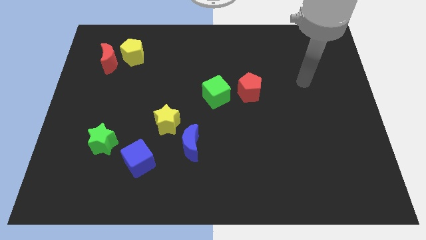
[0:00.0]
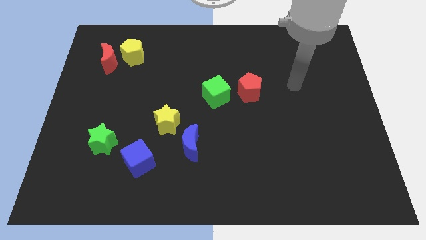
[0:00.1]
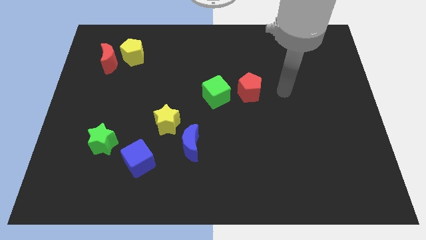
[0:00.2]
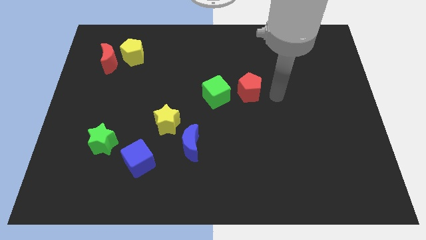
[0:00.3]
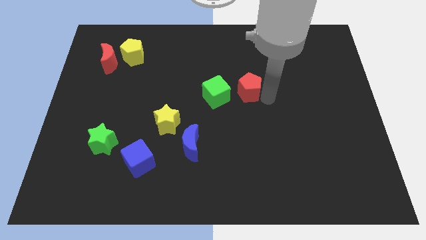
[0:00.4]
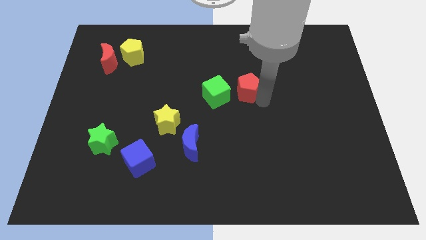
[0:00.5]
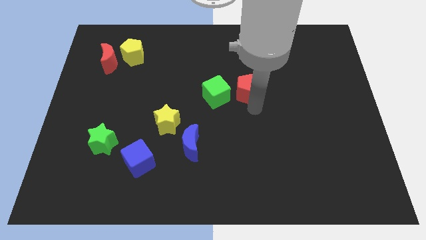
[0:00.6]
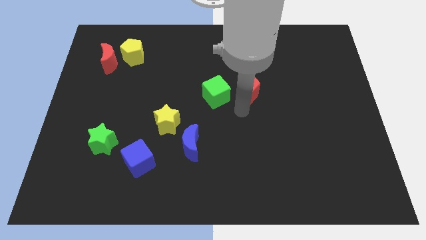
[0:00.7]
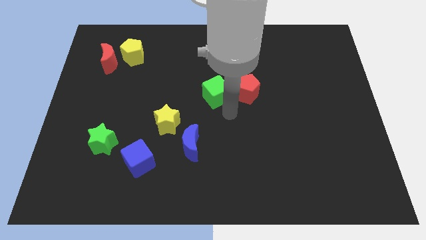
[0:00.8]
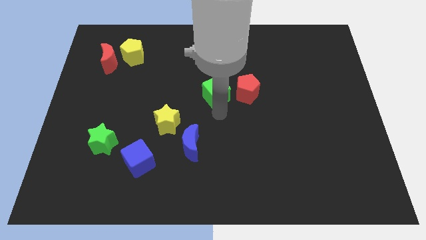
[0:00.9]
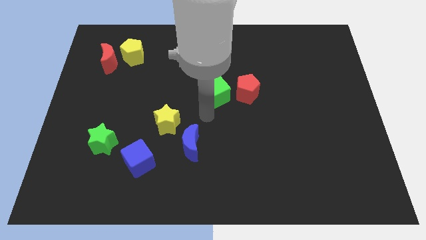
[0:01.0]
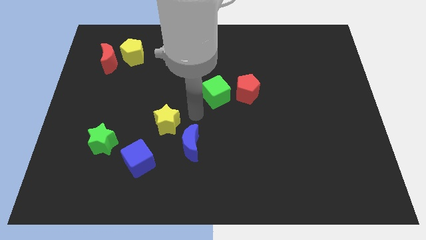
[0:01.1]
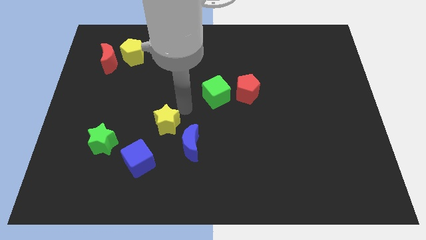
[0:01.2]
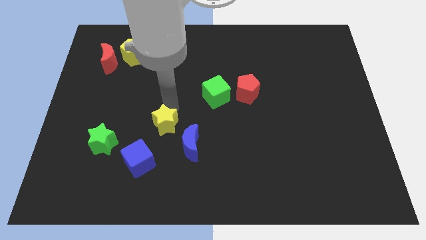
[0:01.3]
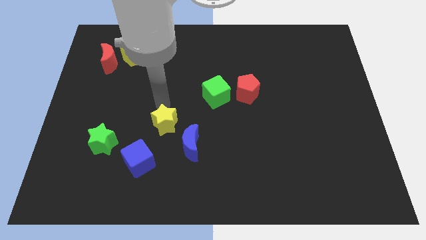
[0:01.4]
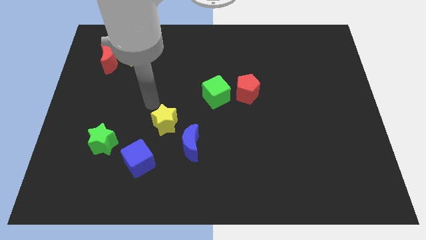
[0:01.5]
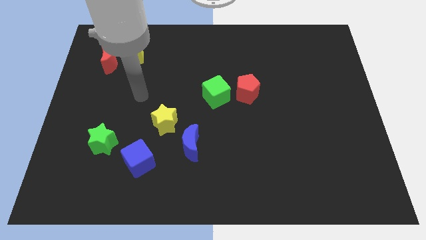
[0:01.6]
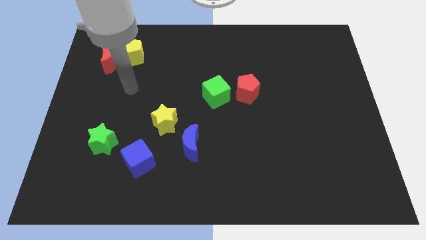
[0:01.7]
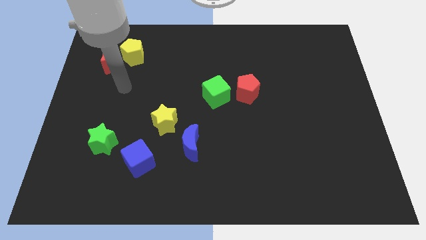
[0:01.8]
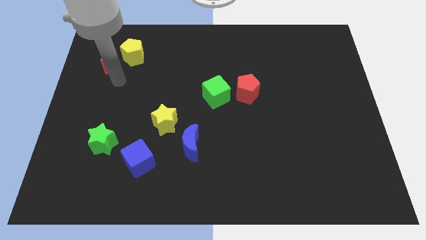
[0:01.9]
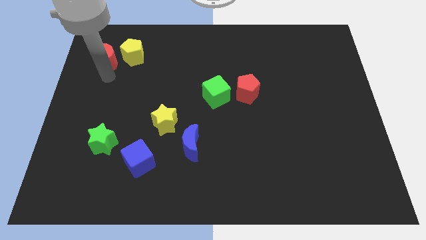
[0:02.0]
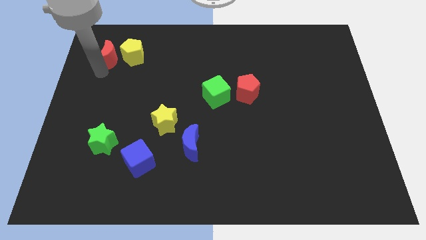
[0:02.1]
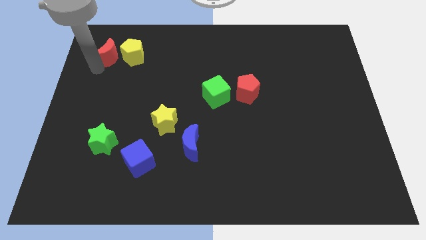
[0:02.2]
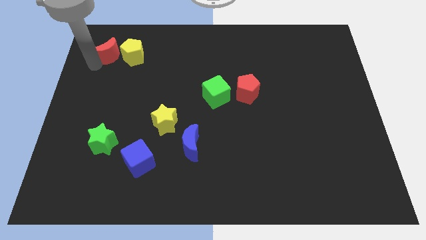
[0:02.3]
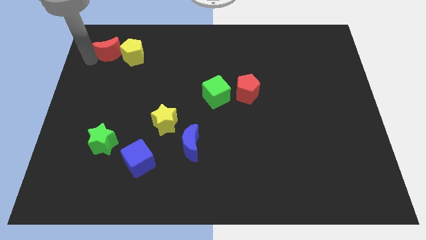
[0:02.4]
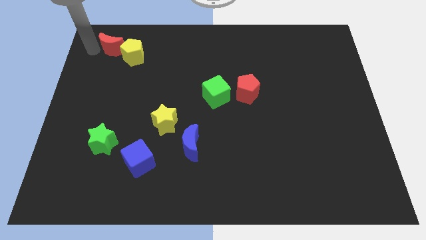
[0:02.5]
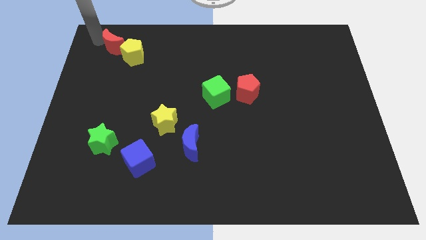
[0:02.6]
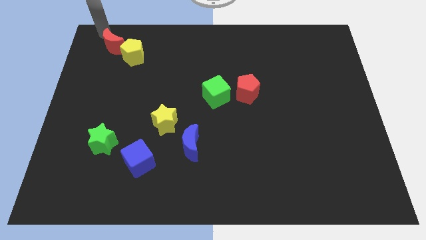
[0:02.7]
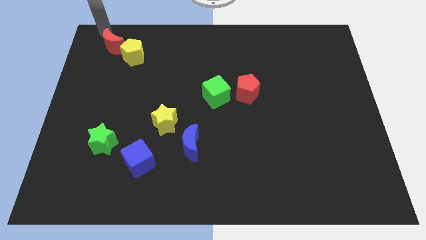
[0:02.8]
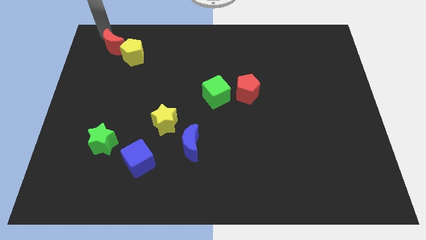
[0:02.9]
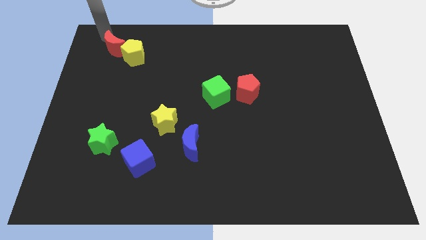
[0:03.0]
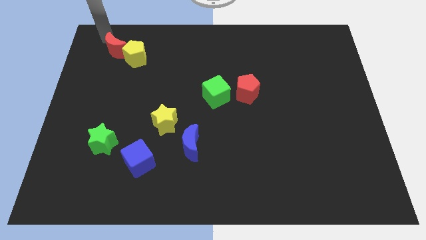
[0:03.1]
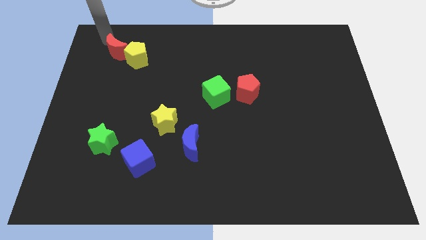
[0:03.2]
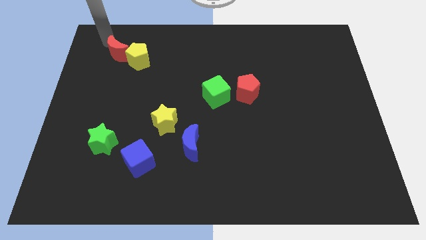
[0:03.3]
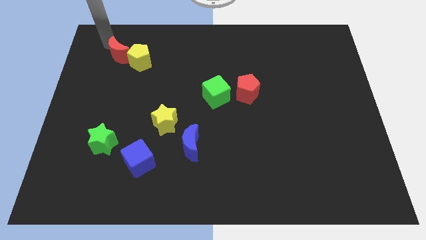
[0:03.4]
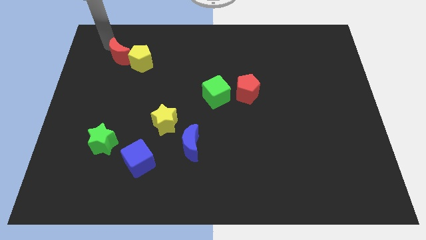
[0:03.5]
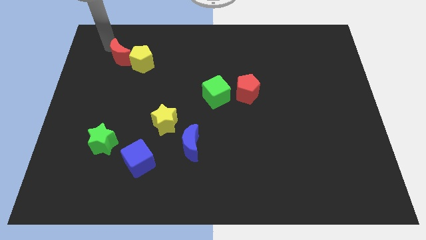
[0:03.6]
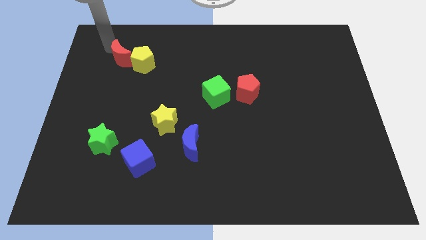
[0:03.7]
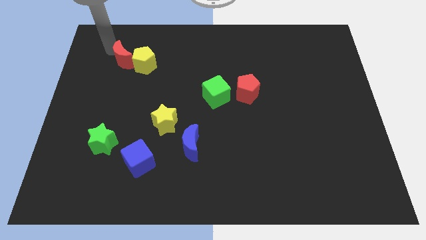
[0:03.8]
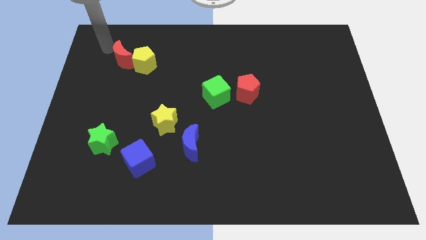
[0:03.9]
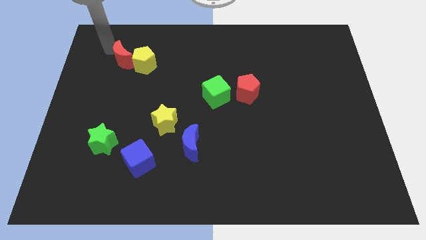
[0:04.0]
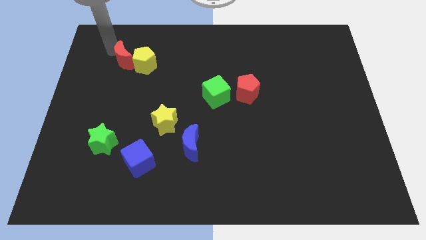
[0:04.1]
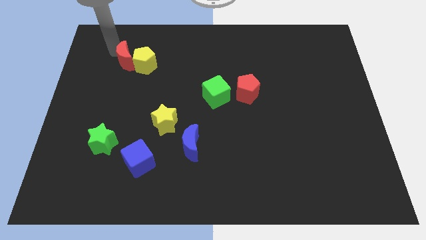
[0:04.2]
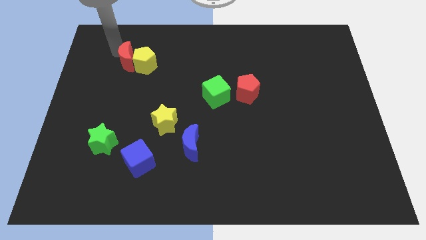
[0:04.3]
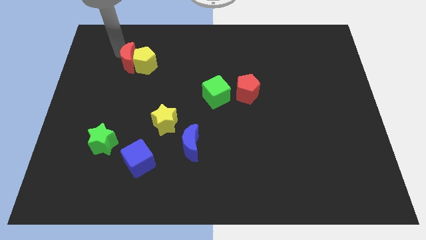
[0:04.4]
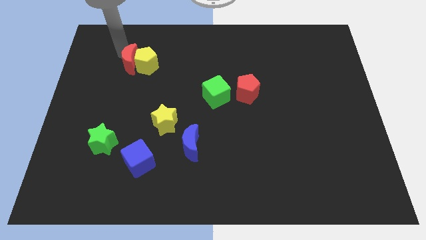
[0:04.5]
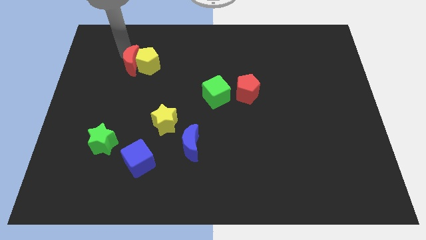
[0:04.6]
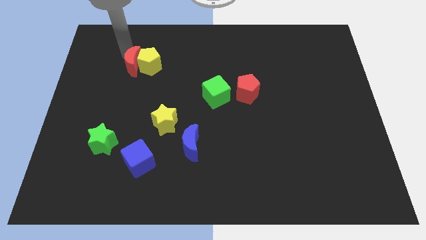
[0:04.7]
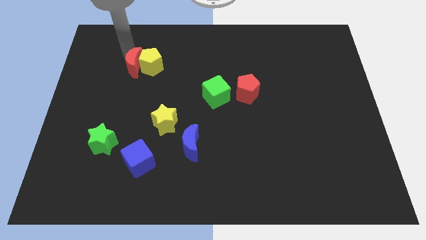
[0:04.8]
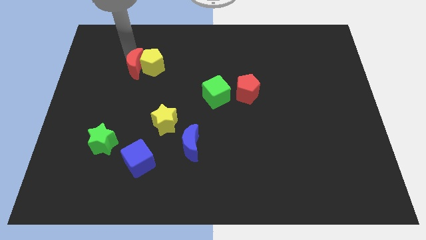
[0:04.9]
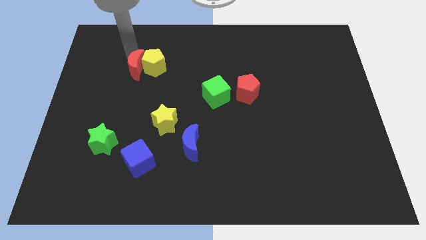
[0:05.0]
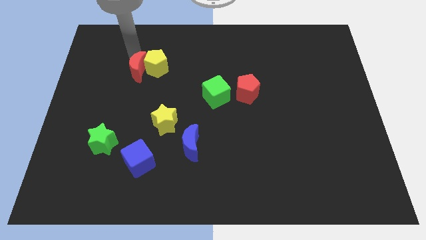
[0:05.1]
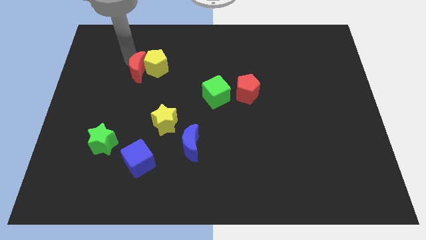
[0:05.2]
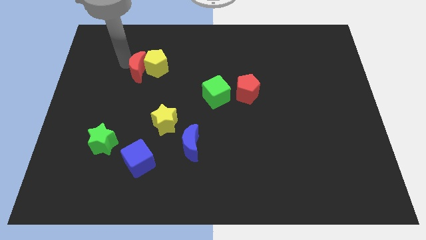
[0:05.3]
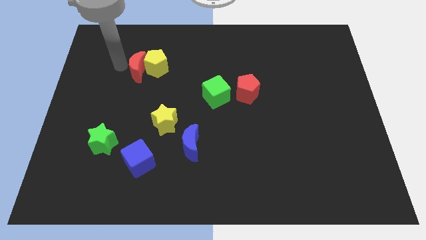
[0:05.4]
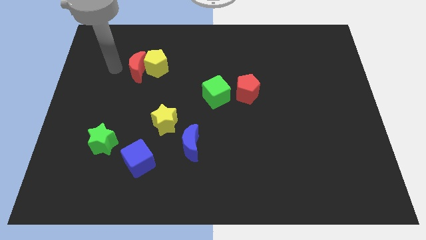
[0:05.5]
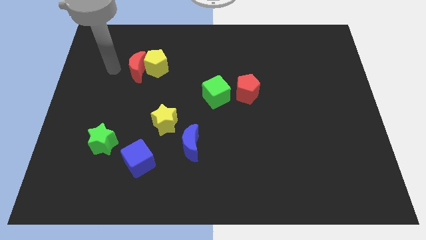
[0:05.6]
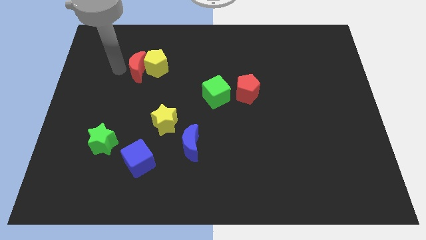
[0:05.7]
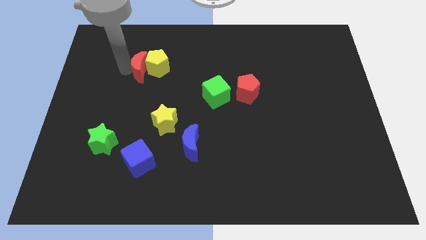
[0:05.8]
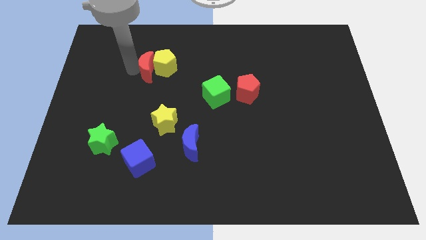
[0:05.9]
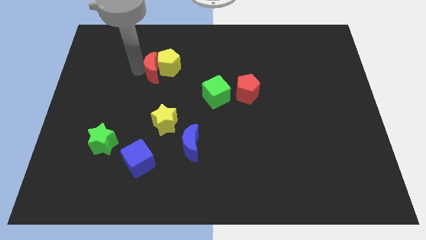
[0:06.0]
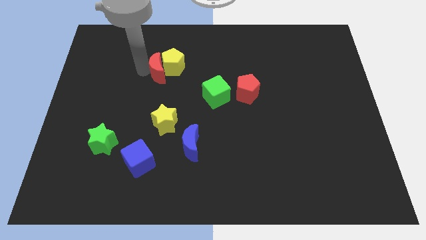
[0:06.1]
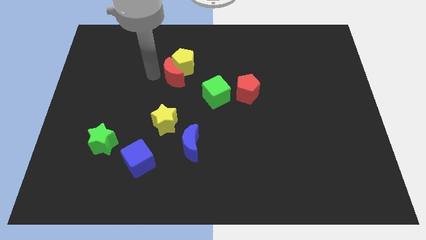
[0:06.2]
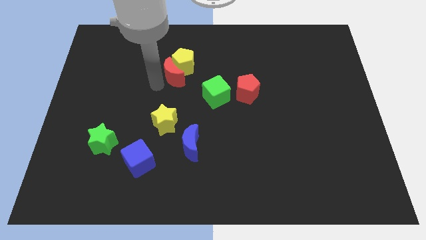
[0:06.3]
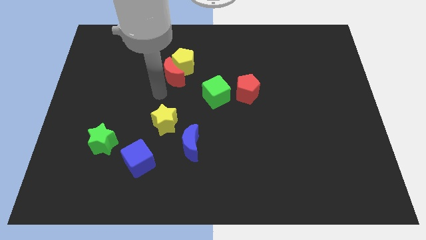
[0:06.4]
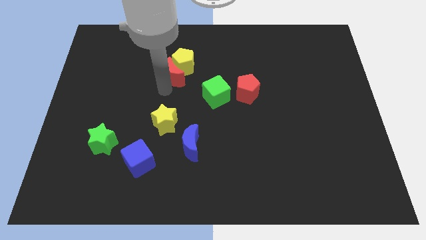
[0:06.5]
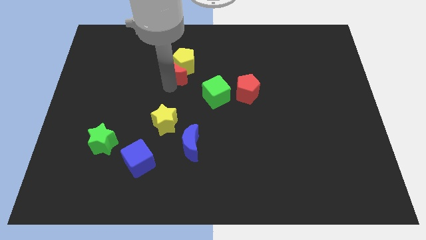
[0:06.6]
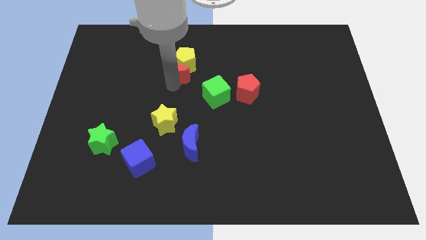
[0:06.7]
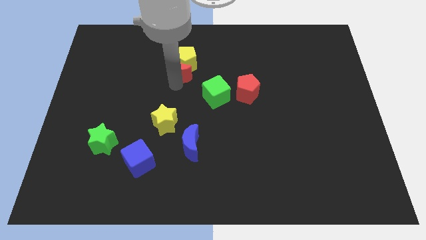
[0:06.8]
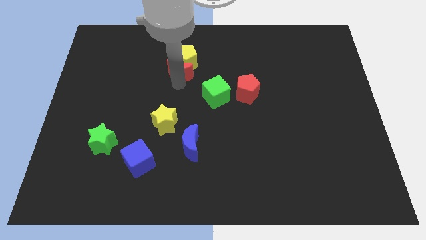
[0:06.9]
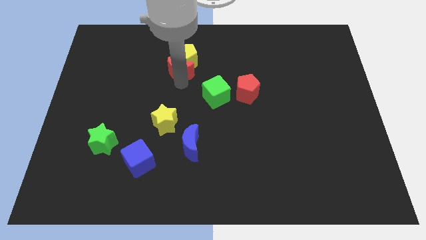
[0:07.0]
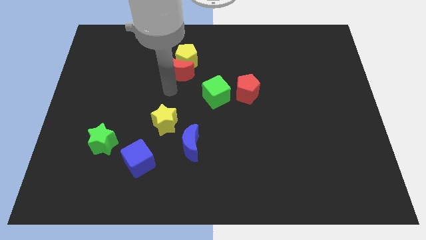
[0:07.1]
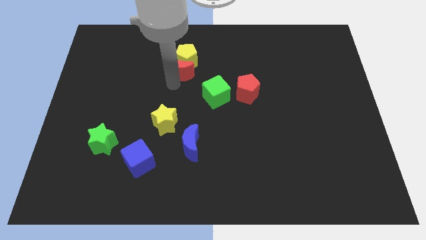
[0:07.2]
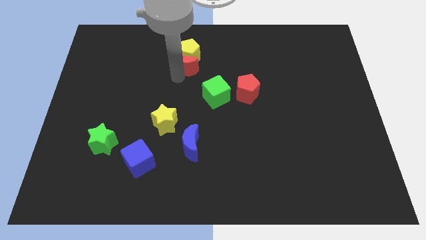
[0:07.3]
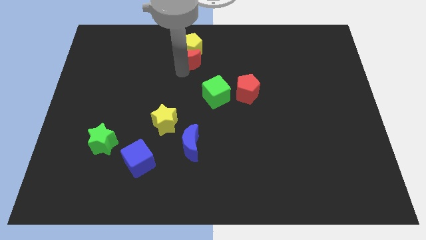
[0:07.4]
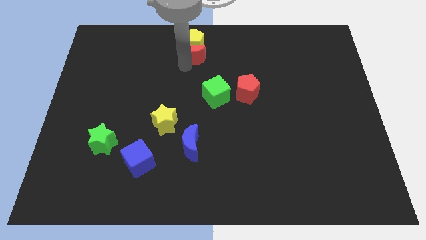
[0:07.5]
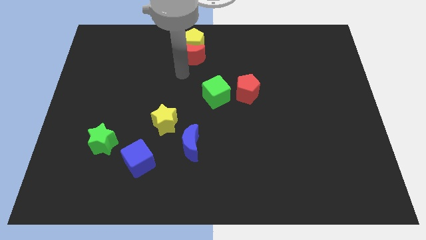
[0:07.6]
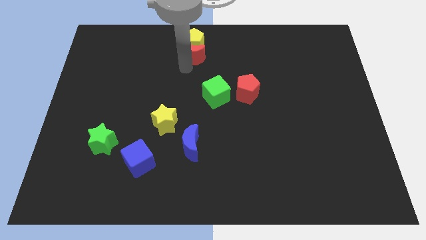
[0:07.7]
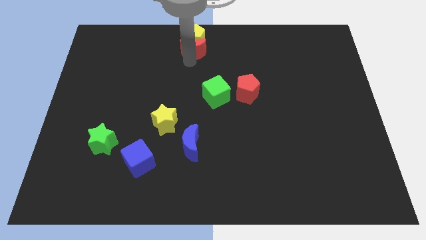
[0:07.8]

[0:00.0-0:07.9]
push the red moon to the top side
